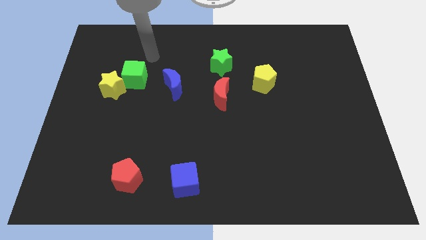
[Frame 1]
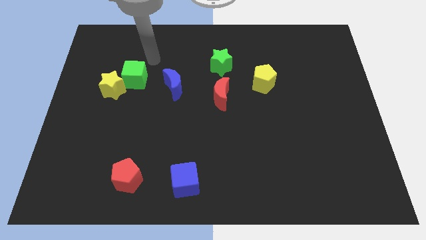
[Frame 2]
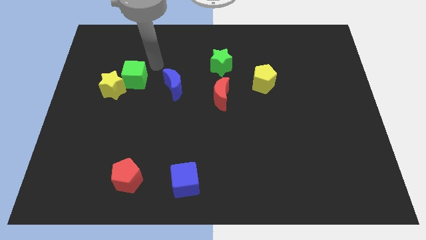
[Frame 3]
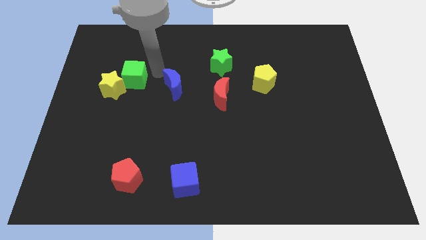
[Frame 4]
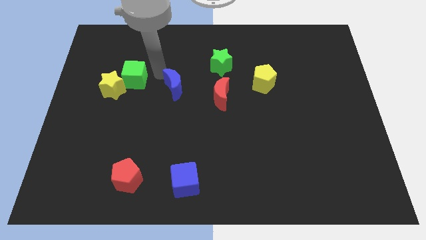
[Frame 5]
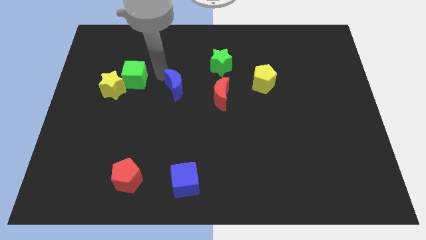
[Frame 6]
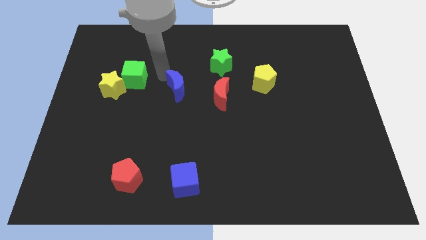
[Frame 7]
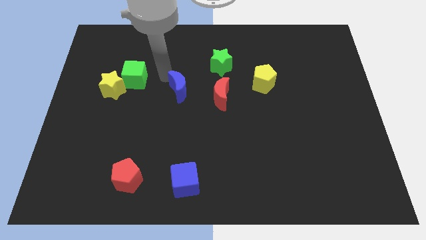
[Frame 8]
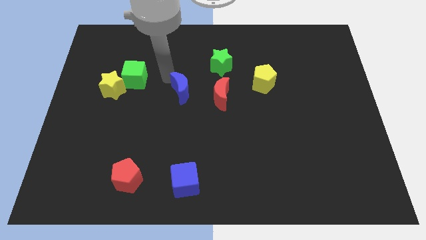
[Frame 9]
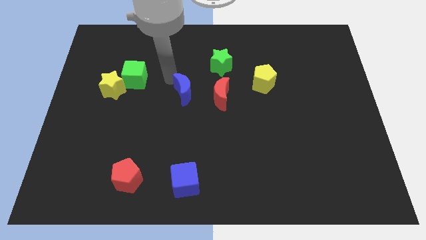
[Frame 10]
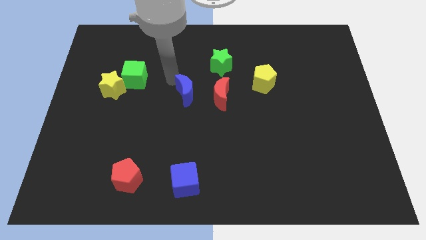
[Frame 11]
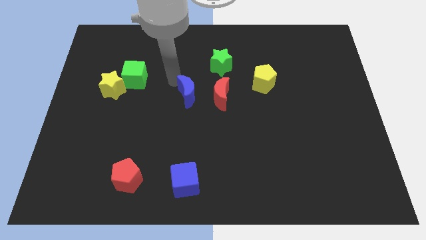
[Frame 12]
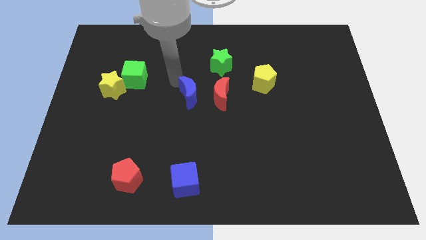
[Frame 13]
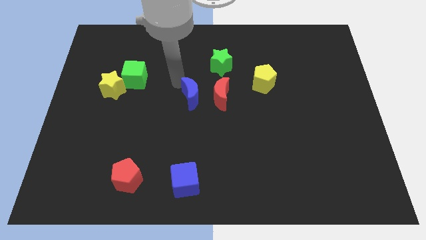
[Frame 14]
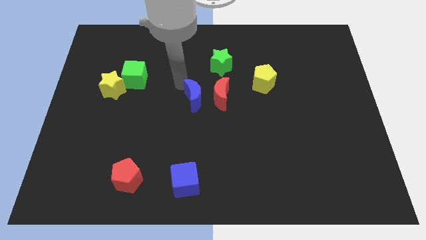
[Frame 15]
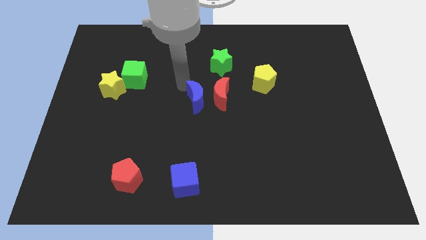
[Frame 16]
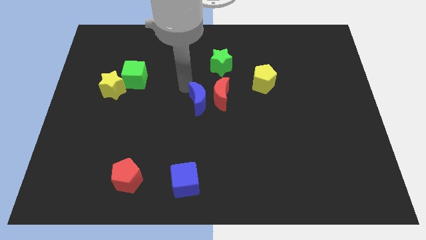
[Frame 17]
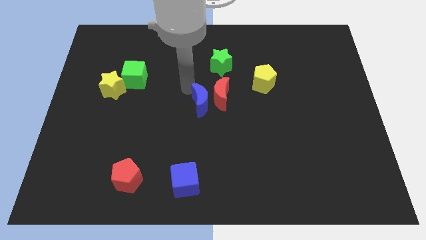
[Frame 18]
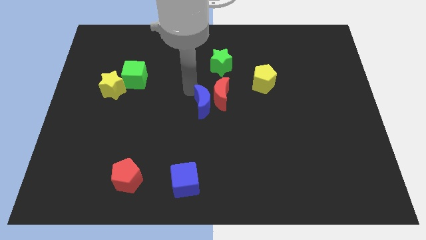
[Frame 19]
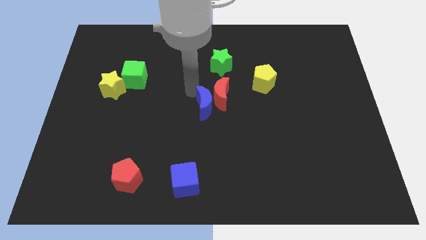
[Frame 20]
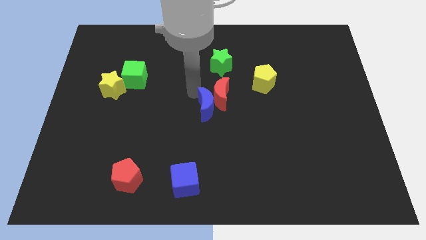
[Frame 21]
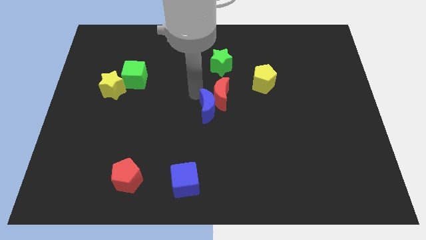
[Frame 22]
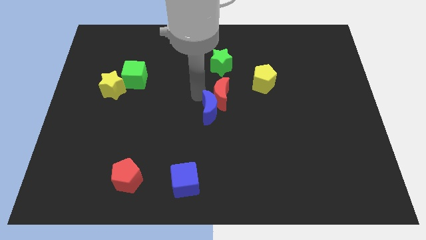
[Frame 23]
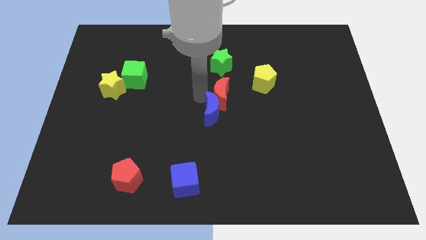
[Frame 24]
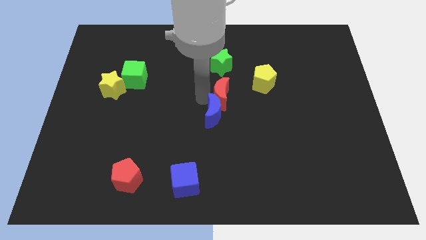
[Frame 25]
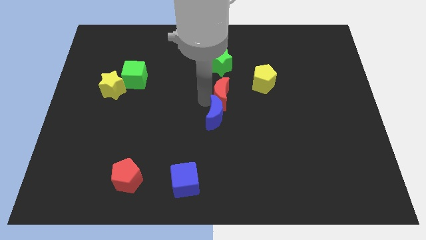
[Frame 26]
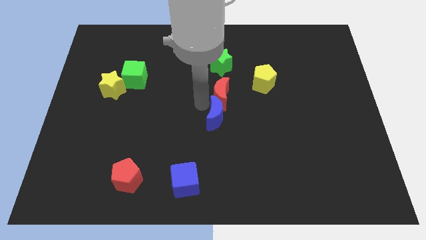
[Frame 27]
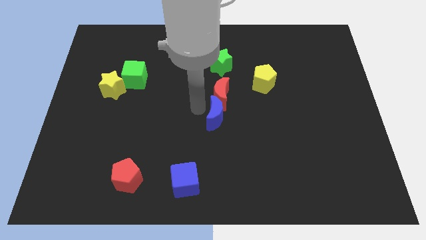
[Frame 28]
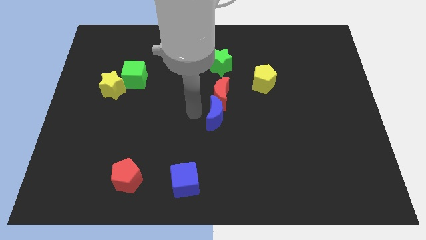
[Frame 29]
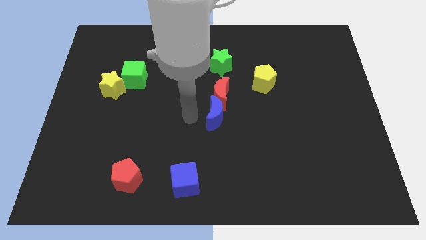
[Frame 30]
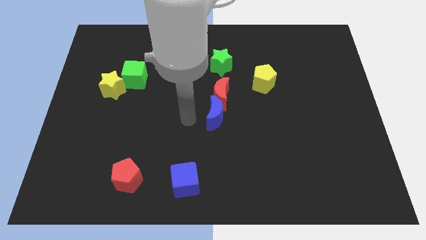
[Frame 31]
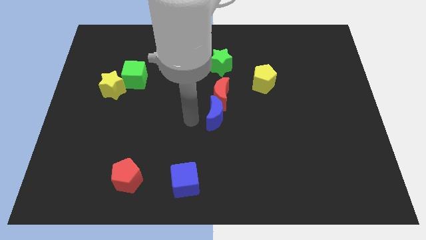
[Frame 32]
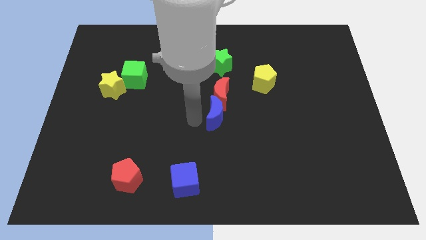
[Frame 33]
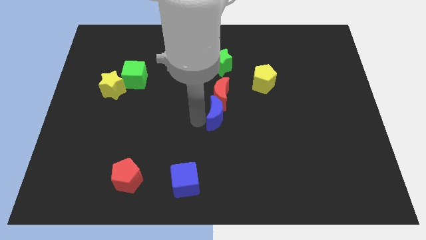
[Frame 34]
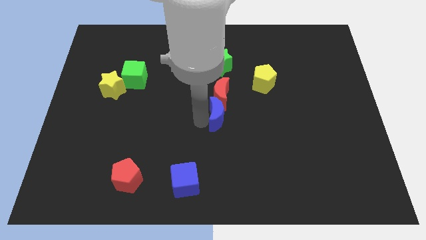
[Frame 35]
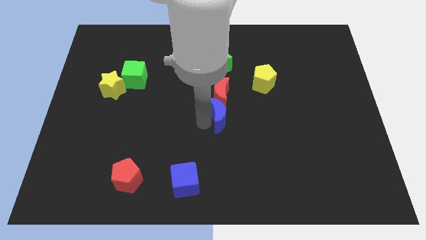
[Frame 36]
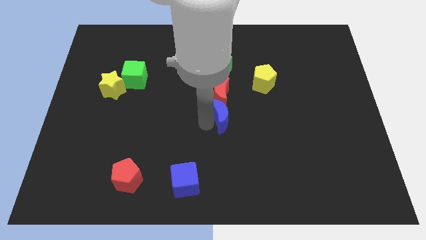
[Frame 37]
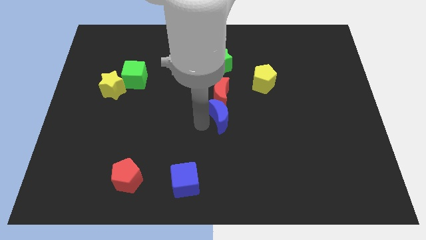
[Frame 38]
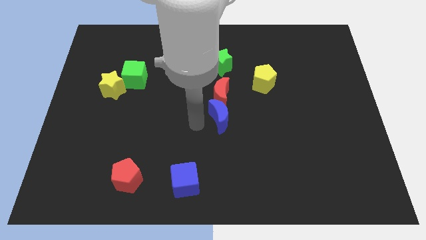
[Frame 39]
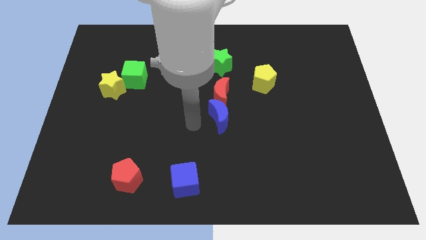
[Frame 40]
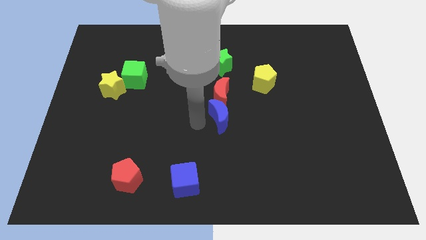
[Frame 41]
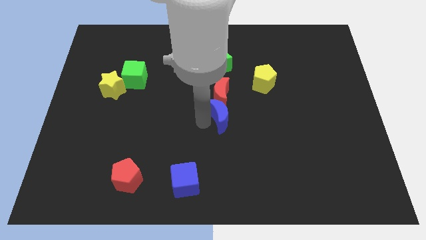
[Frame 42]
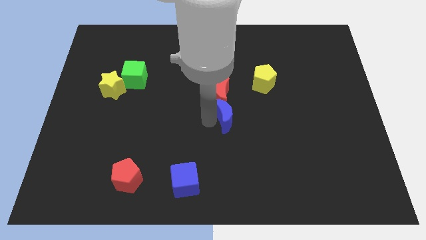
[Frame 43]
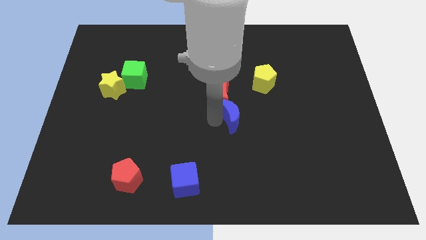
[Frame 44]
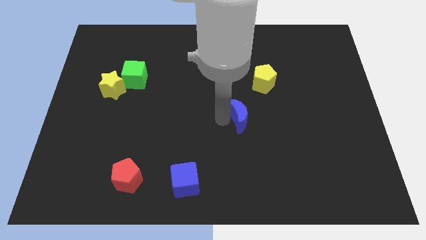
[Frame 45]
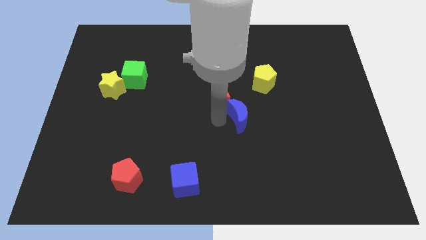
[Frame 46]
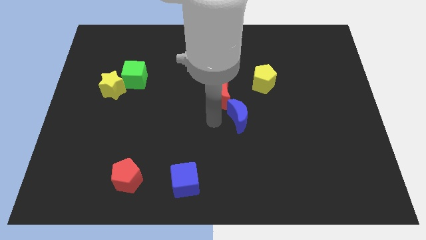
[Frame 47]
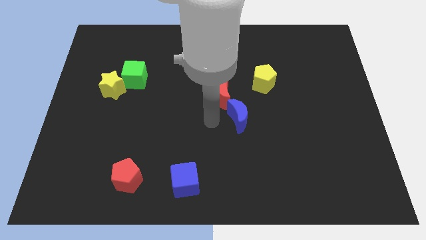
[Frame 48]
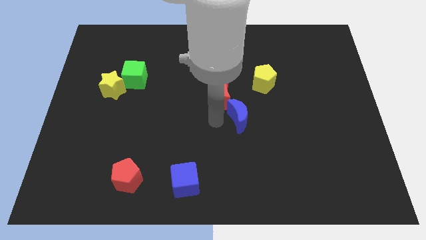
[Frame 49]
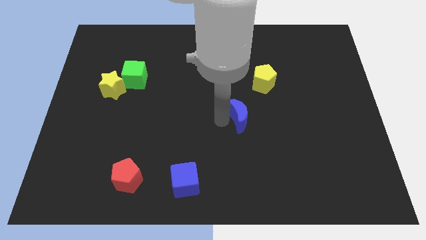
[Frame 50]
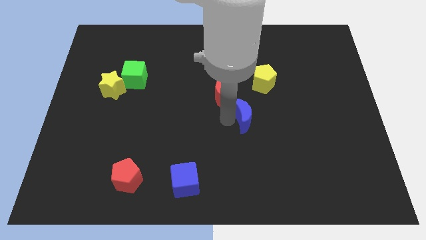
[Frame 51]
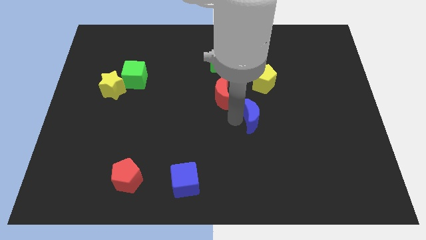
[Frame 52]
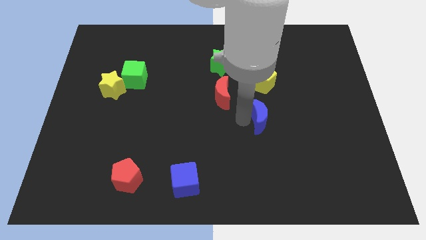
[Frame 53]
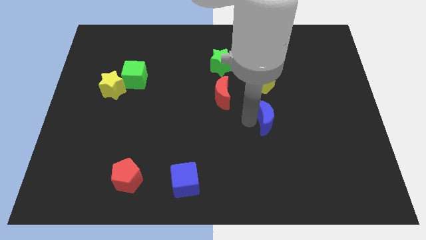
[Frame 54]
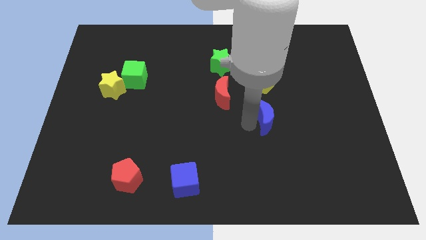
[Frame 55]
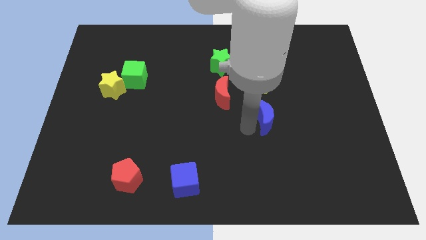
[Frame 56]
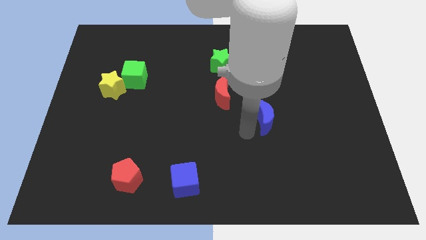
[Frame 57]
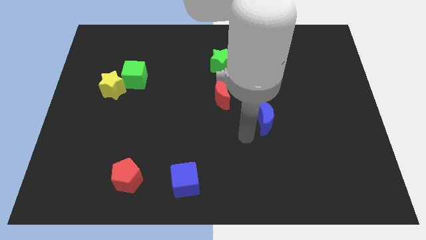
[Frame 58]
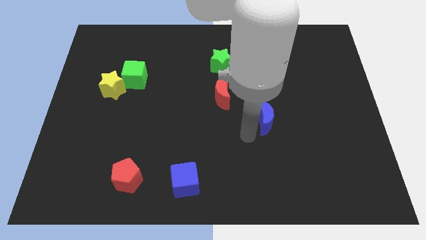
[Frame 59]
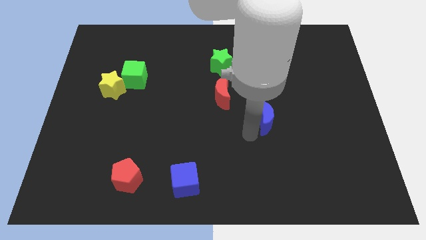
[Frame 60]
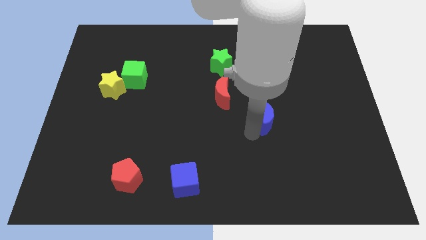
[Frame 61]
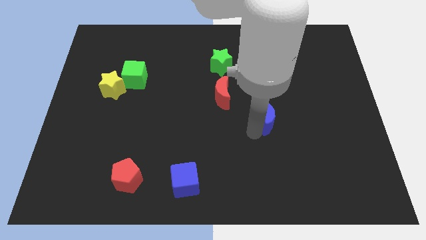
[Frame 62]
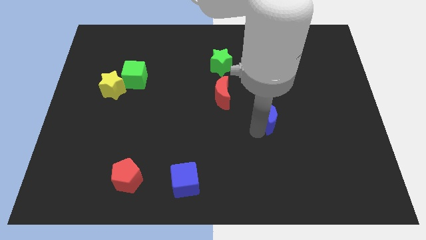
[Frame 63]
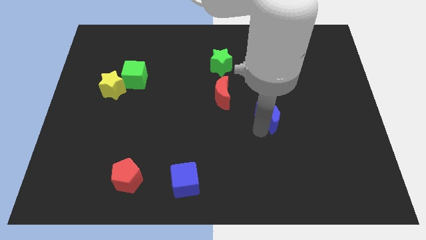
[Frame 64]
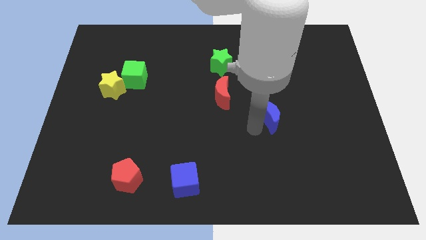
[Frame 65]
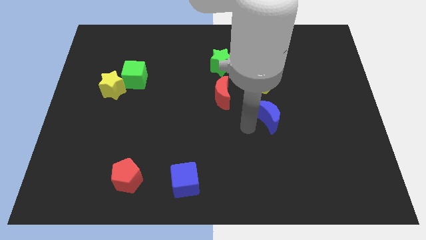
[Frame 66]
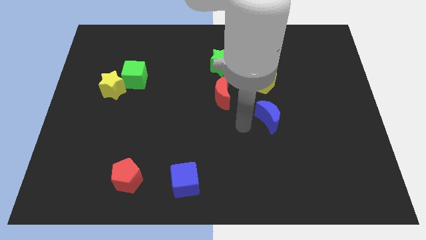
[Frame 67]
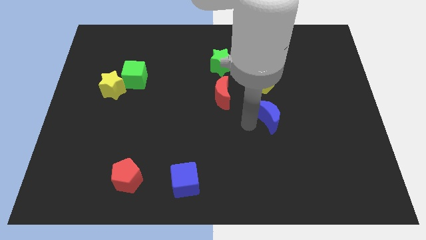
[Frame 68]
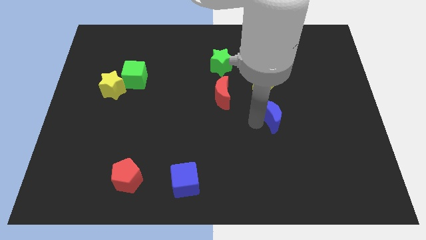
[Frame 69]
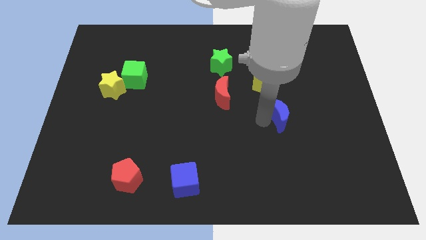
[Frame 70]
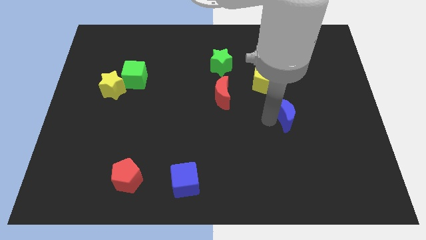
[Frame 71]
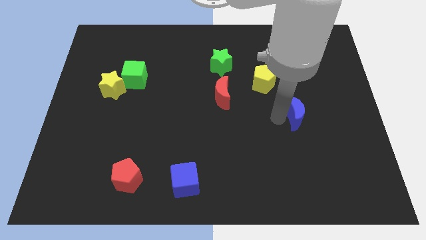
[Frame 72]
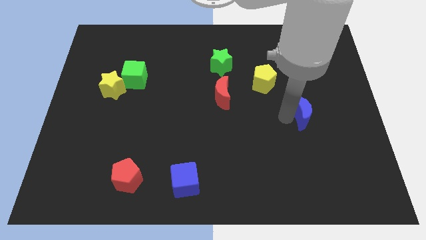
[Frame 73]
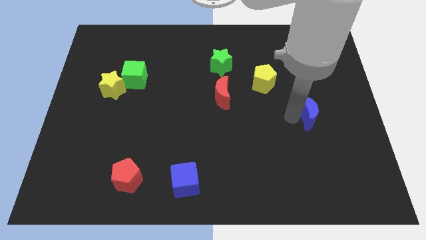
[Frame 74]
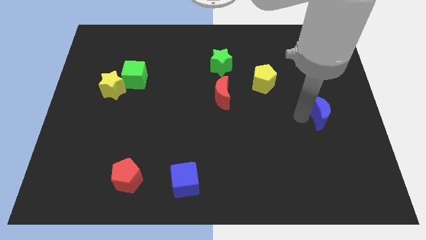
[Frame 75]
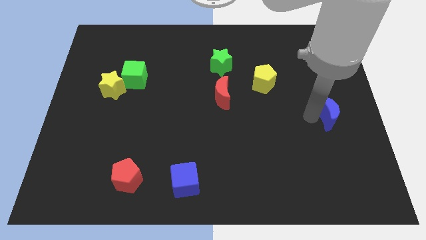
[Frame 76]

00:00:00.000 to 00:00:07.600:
put the blue moon to the center right
